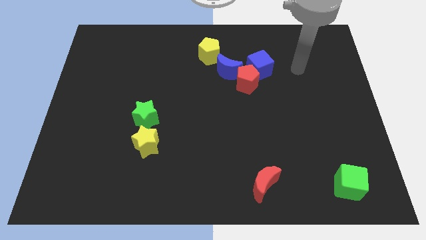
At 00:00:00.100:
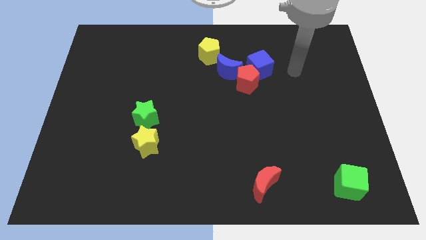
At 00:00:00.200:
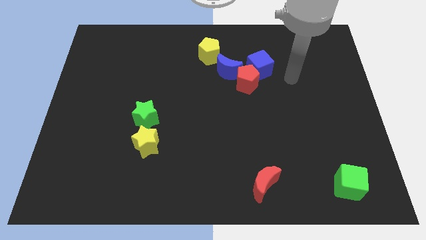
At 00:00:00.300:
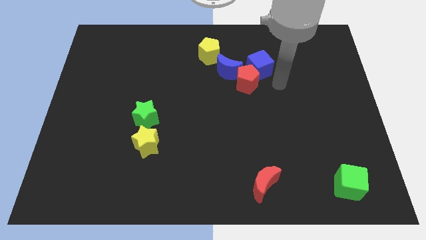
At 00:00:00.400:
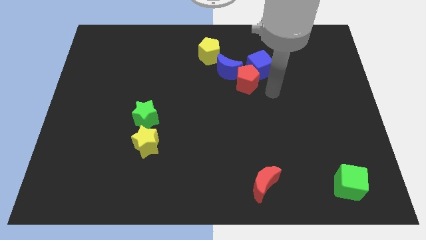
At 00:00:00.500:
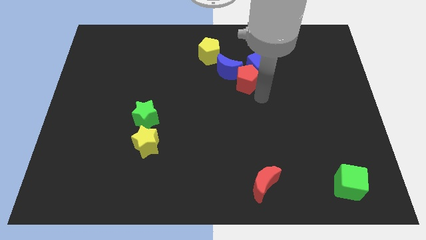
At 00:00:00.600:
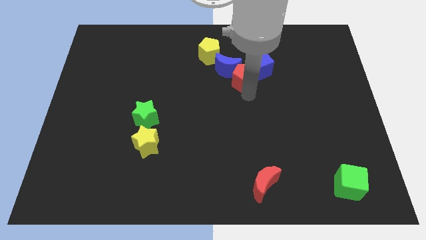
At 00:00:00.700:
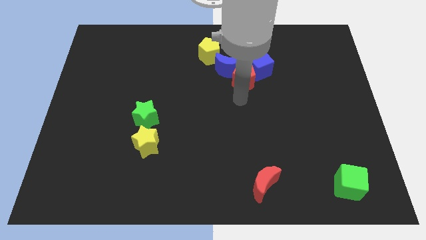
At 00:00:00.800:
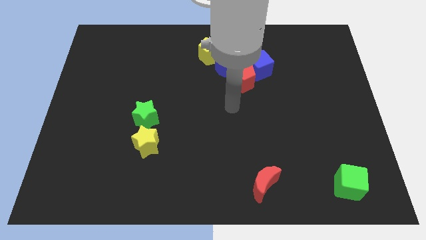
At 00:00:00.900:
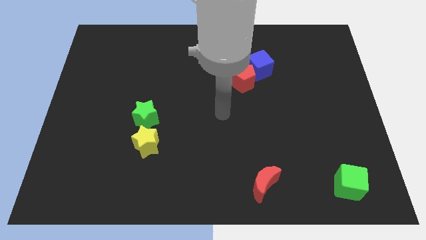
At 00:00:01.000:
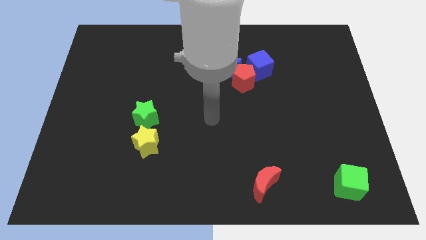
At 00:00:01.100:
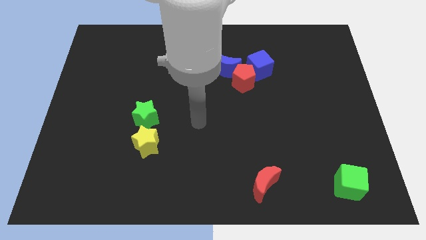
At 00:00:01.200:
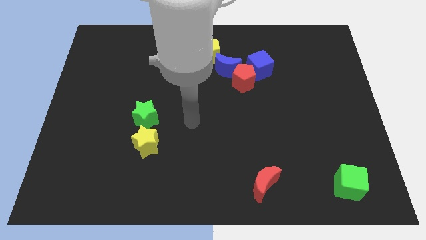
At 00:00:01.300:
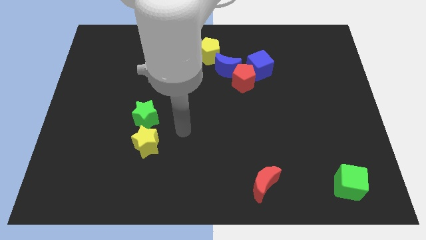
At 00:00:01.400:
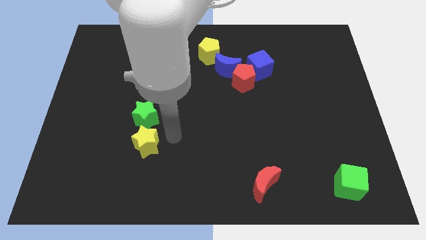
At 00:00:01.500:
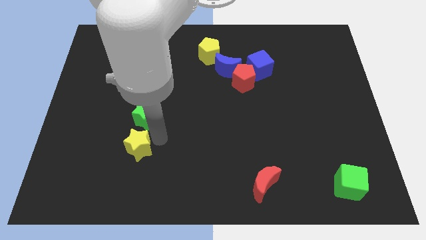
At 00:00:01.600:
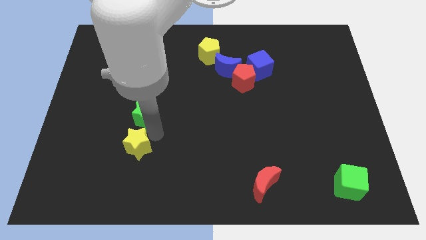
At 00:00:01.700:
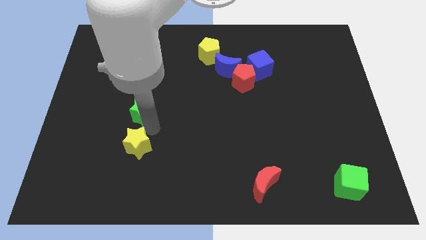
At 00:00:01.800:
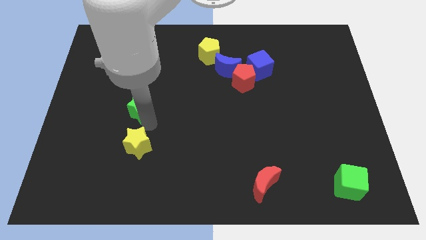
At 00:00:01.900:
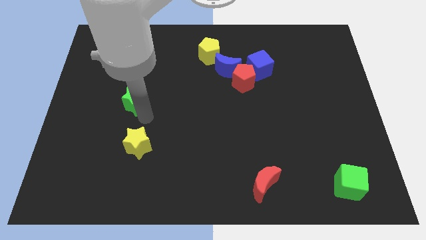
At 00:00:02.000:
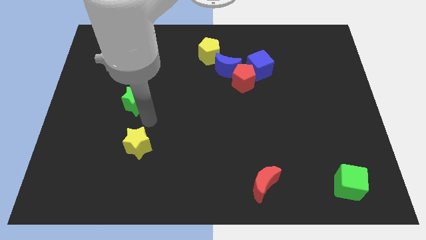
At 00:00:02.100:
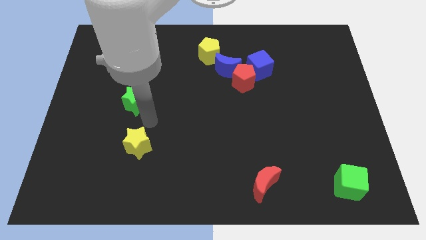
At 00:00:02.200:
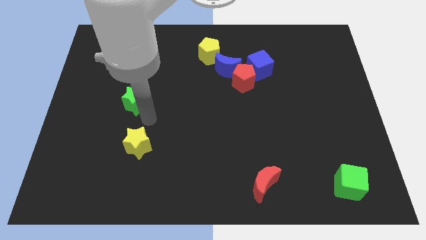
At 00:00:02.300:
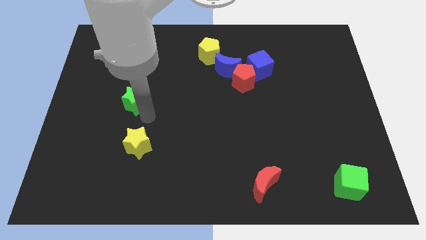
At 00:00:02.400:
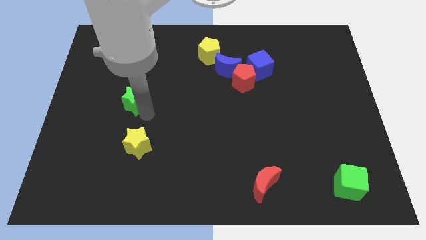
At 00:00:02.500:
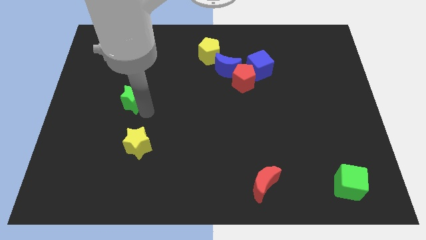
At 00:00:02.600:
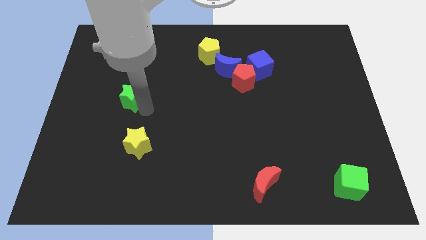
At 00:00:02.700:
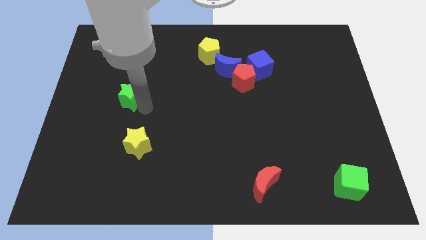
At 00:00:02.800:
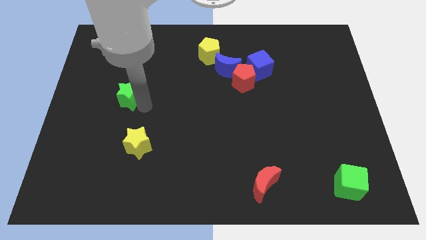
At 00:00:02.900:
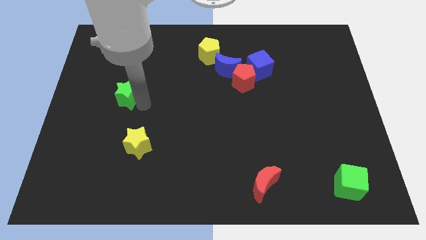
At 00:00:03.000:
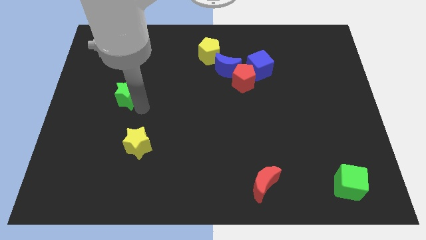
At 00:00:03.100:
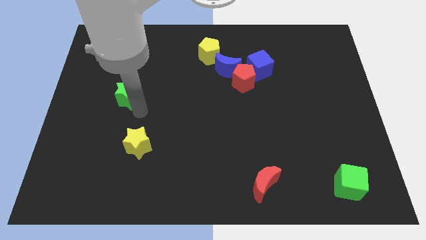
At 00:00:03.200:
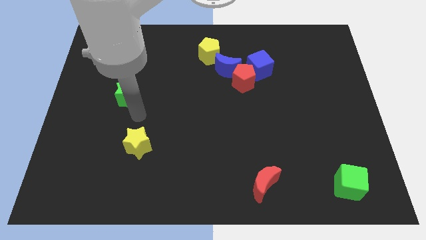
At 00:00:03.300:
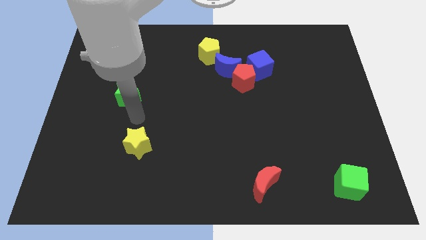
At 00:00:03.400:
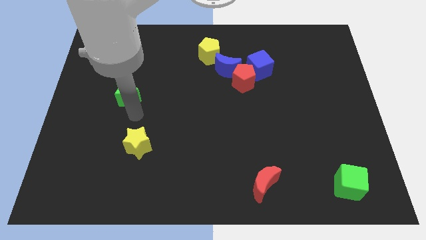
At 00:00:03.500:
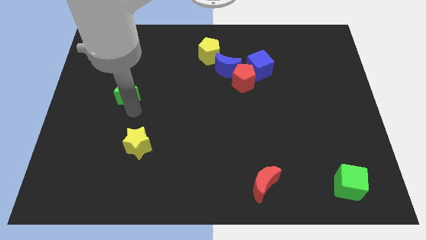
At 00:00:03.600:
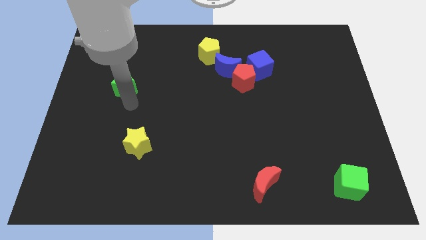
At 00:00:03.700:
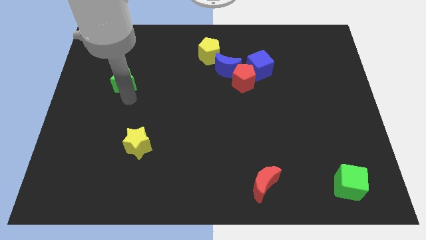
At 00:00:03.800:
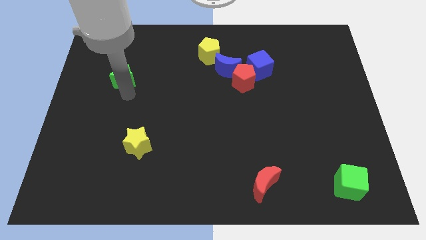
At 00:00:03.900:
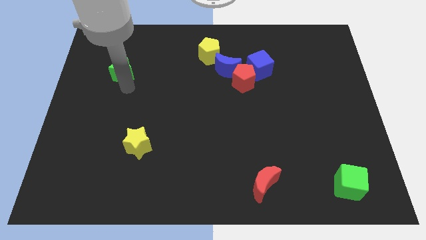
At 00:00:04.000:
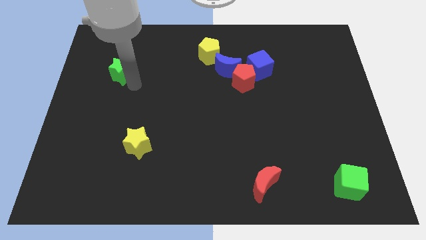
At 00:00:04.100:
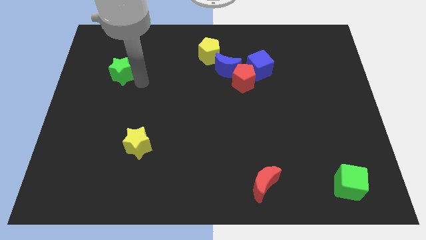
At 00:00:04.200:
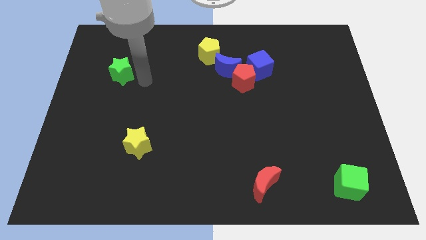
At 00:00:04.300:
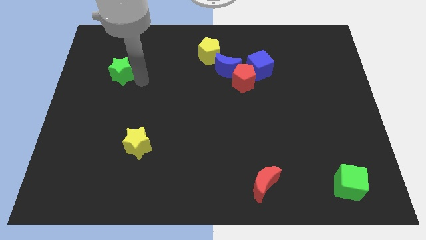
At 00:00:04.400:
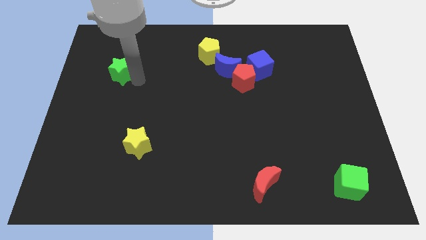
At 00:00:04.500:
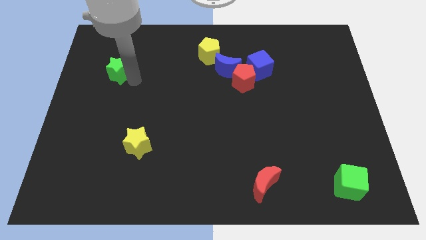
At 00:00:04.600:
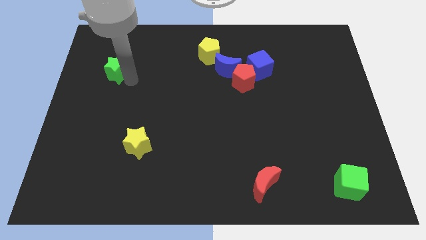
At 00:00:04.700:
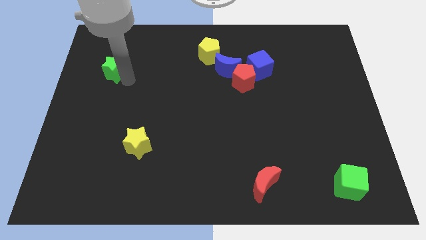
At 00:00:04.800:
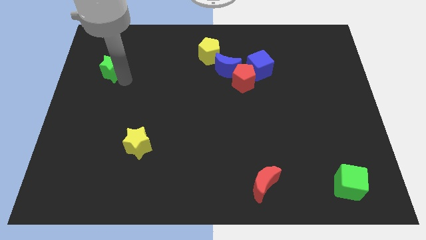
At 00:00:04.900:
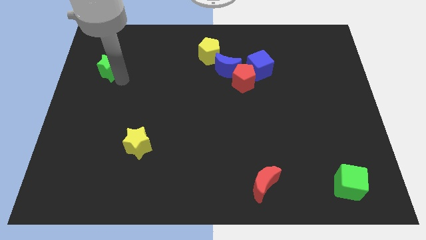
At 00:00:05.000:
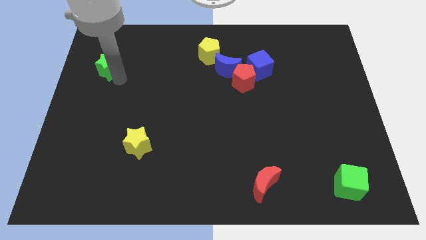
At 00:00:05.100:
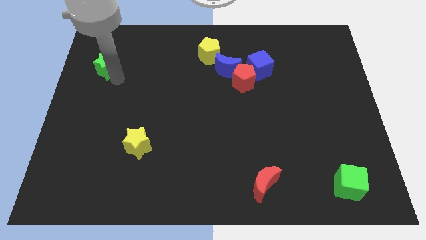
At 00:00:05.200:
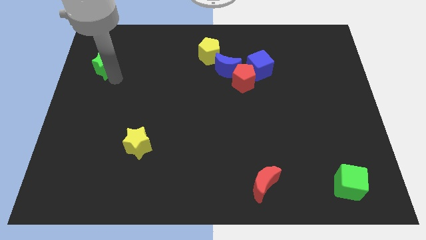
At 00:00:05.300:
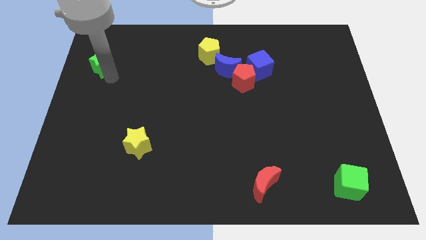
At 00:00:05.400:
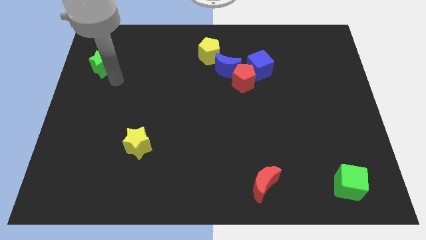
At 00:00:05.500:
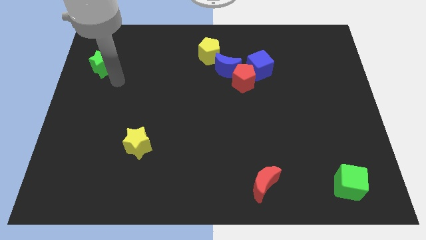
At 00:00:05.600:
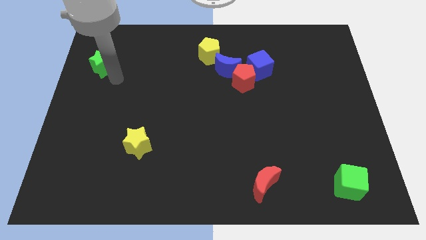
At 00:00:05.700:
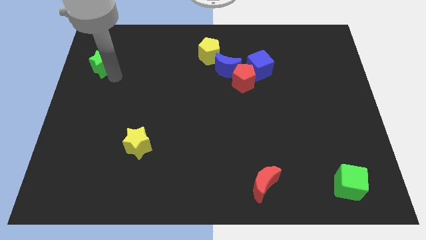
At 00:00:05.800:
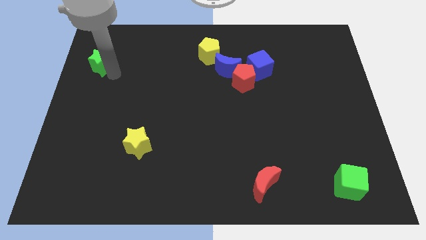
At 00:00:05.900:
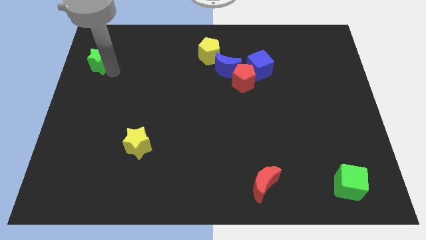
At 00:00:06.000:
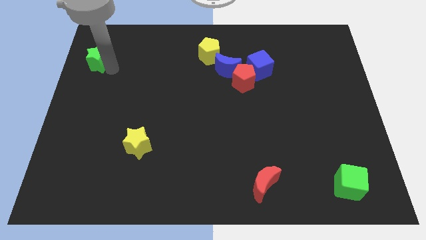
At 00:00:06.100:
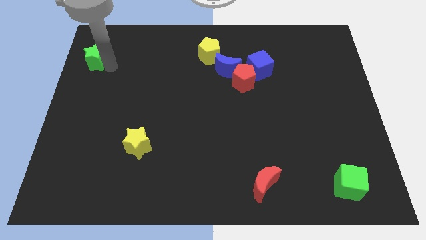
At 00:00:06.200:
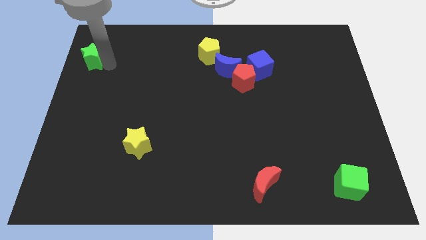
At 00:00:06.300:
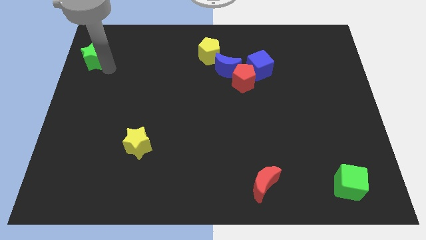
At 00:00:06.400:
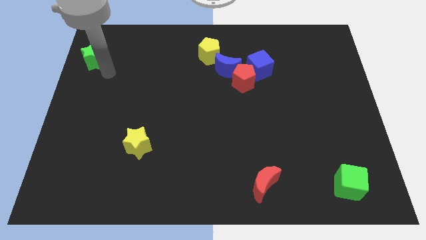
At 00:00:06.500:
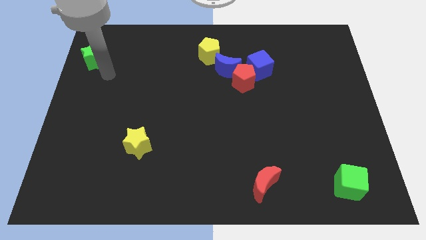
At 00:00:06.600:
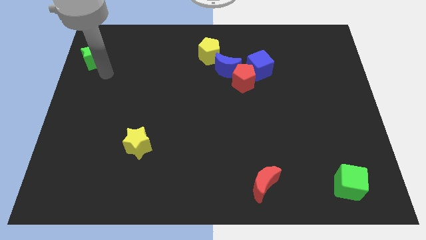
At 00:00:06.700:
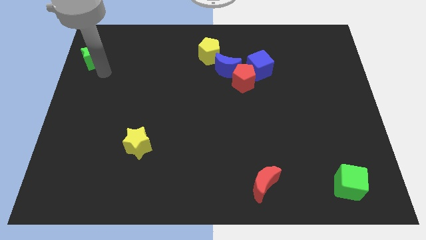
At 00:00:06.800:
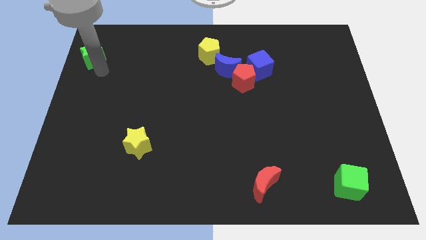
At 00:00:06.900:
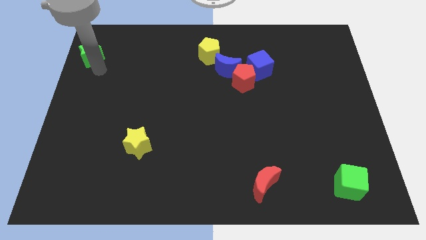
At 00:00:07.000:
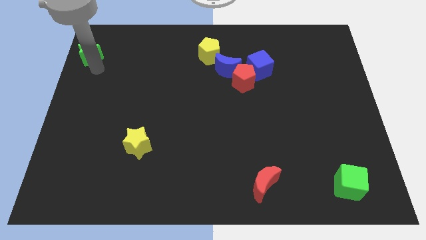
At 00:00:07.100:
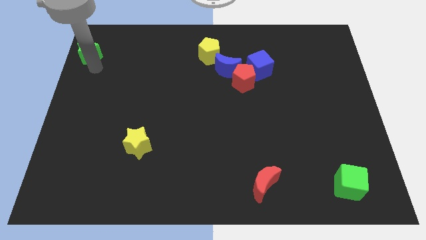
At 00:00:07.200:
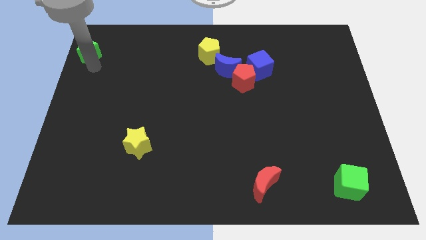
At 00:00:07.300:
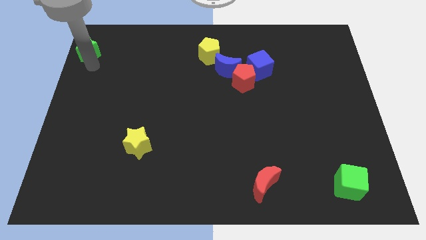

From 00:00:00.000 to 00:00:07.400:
put the green star to the top left corner
